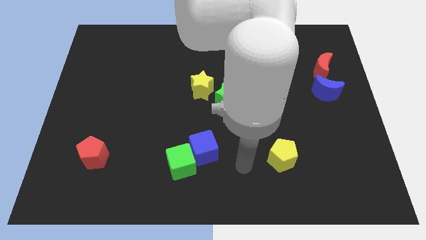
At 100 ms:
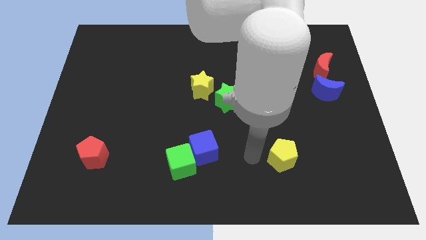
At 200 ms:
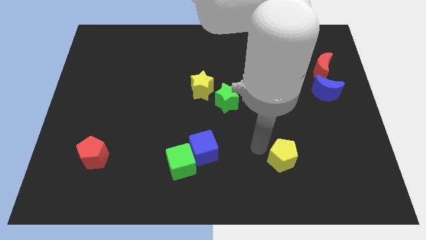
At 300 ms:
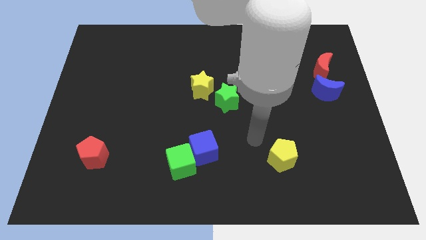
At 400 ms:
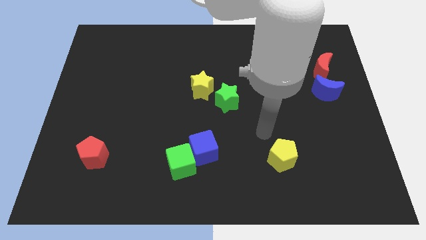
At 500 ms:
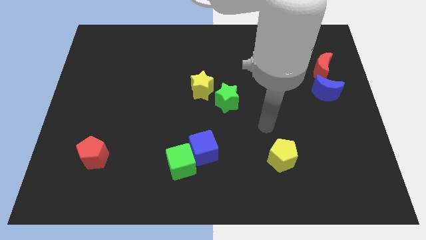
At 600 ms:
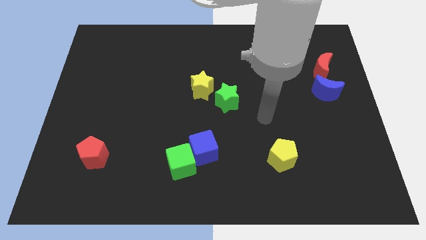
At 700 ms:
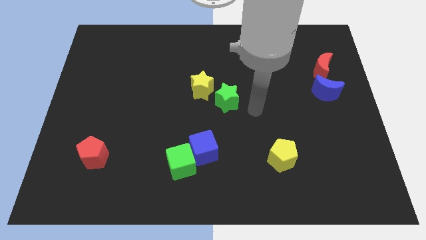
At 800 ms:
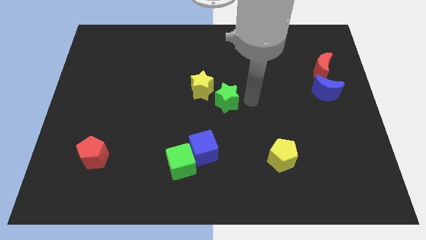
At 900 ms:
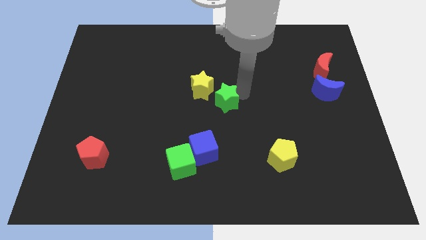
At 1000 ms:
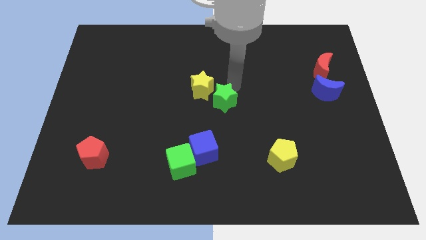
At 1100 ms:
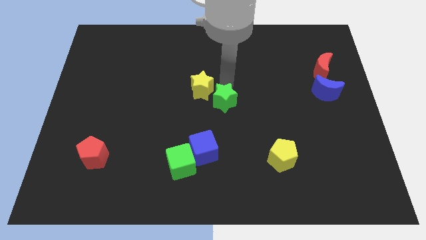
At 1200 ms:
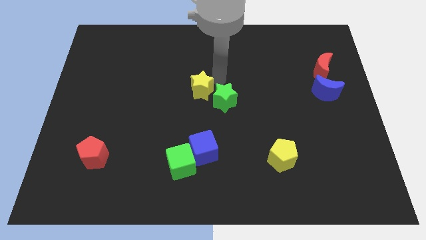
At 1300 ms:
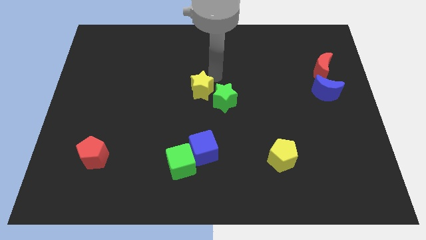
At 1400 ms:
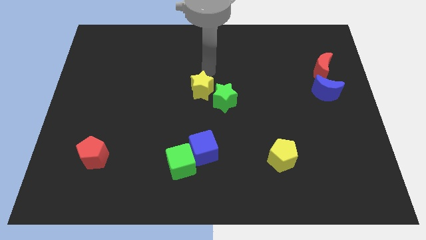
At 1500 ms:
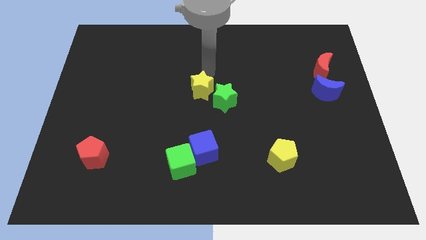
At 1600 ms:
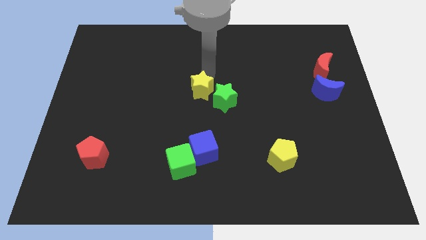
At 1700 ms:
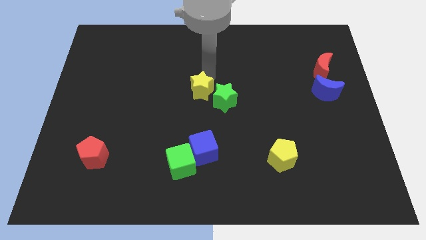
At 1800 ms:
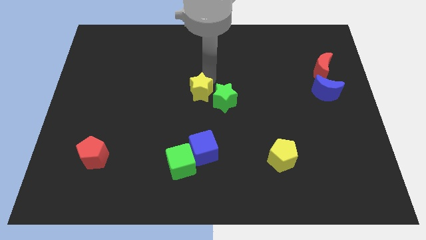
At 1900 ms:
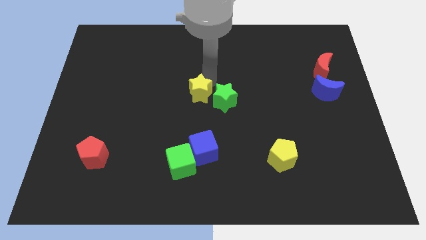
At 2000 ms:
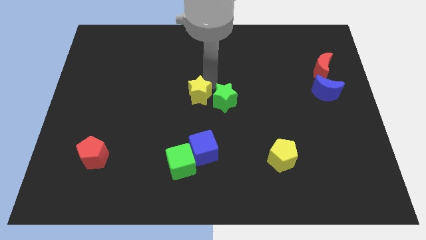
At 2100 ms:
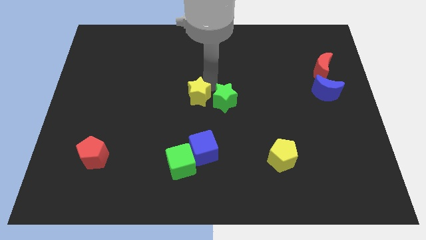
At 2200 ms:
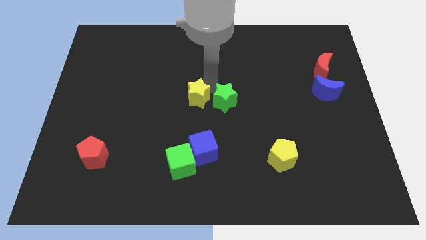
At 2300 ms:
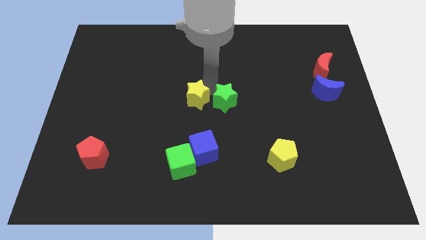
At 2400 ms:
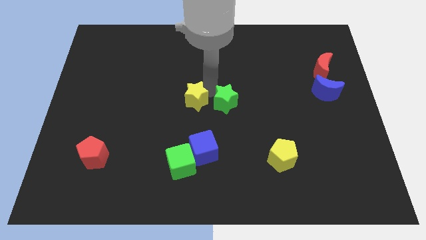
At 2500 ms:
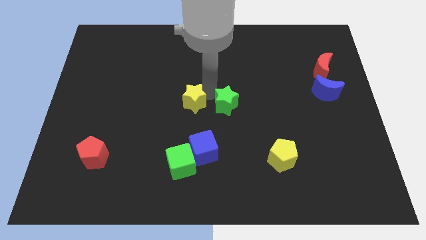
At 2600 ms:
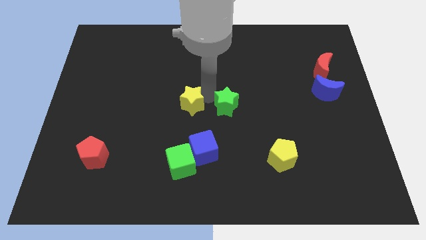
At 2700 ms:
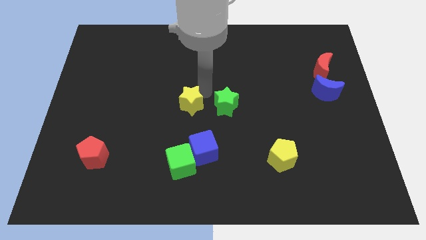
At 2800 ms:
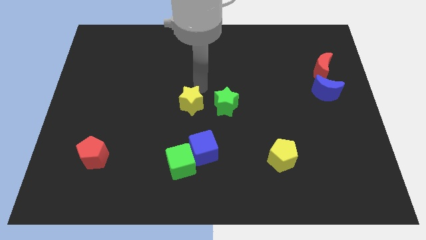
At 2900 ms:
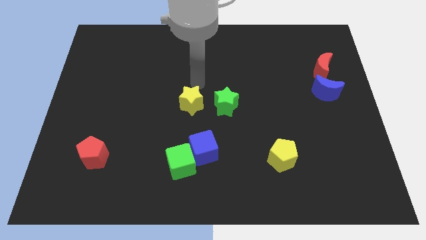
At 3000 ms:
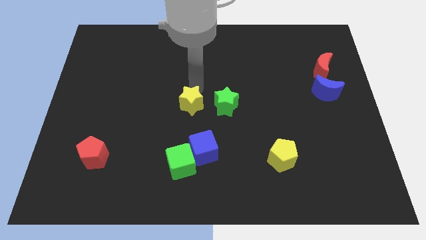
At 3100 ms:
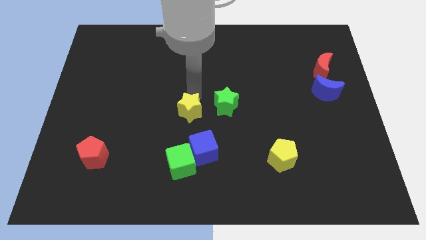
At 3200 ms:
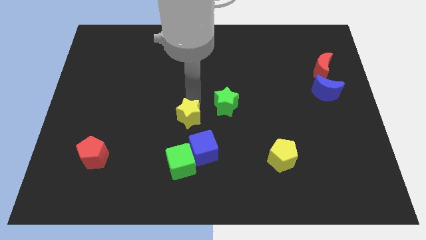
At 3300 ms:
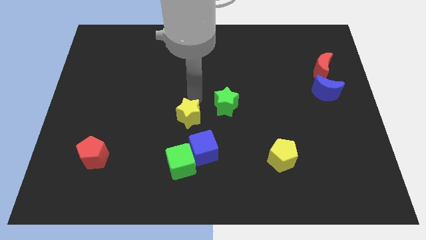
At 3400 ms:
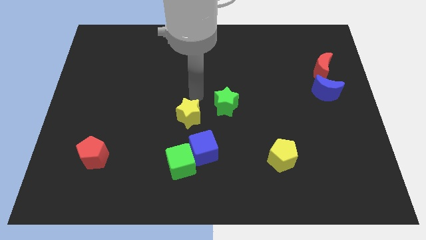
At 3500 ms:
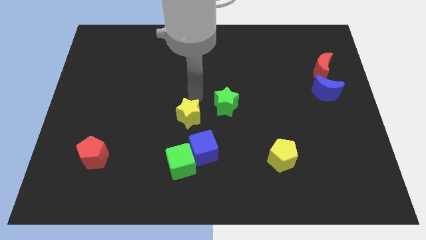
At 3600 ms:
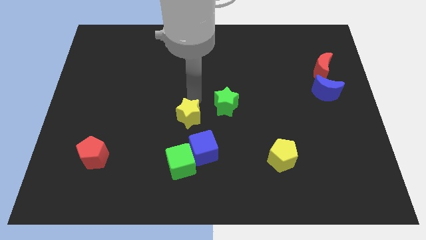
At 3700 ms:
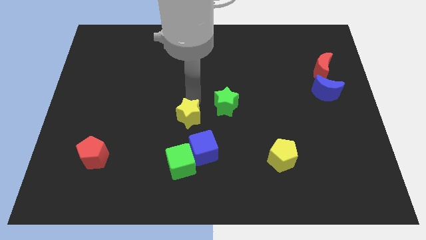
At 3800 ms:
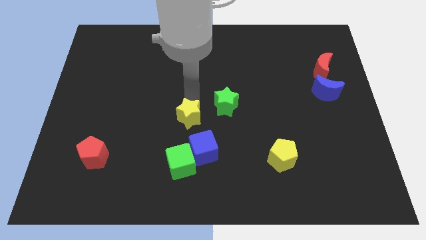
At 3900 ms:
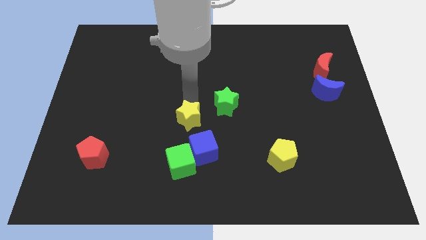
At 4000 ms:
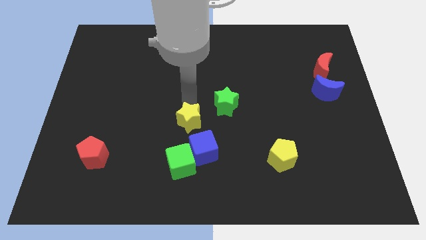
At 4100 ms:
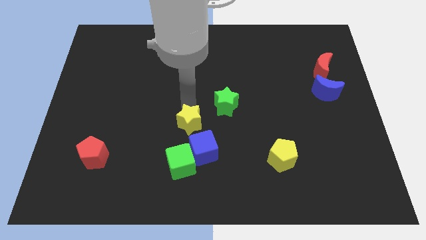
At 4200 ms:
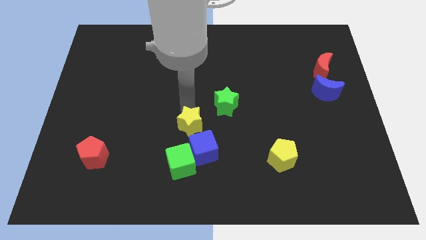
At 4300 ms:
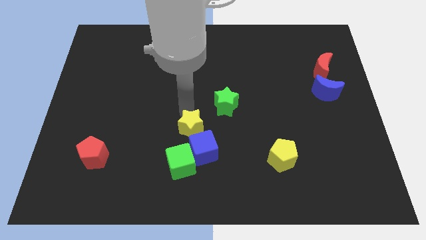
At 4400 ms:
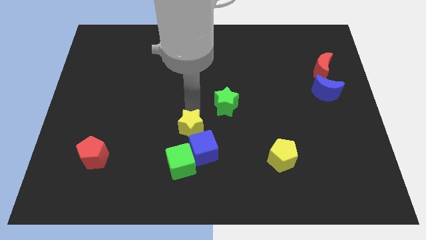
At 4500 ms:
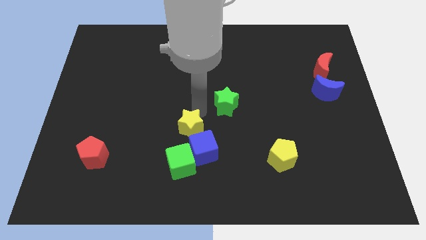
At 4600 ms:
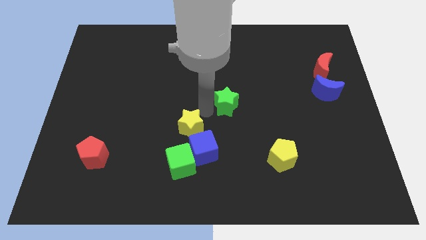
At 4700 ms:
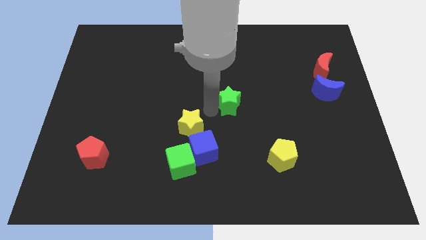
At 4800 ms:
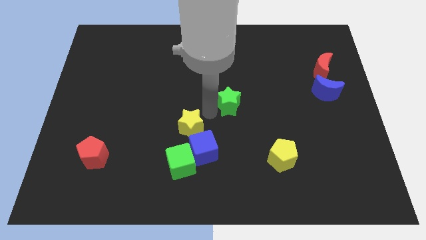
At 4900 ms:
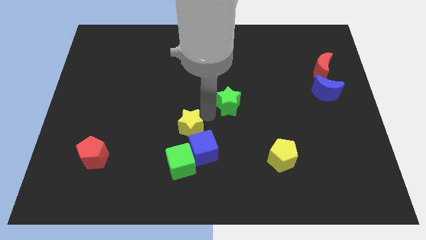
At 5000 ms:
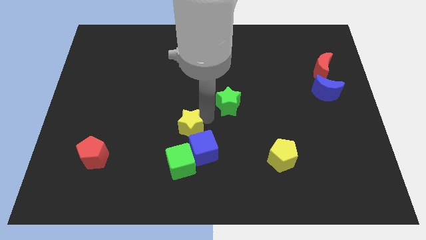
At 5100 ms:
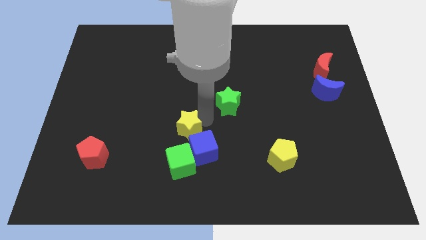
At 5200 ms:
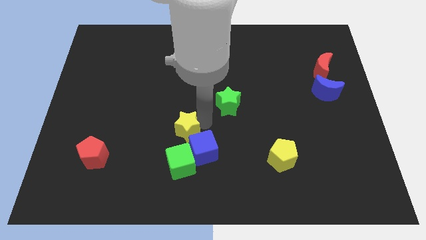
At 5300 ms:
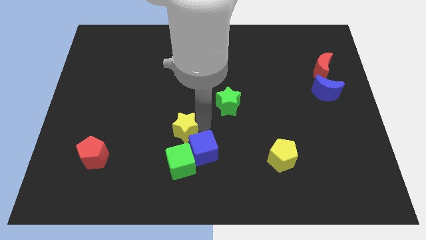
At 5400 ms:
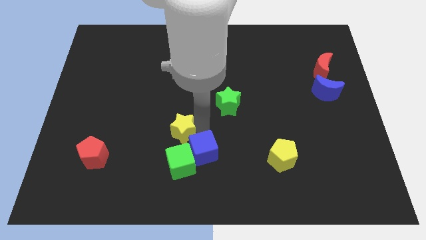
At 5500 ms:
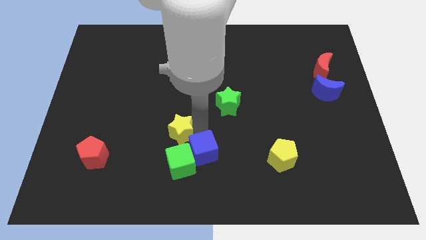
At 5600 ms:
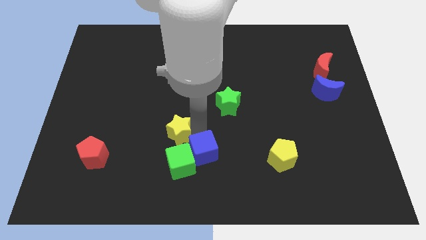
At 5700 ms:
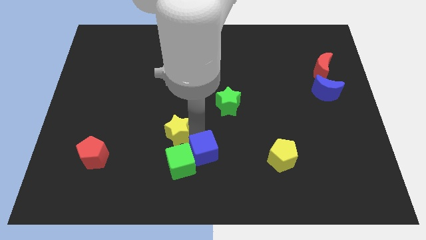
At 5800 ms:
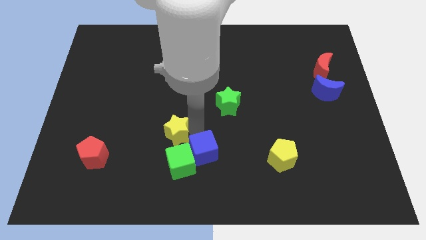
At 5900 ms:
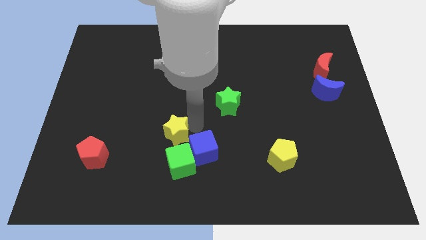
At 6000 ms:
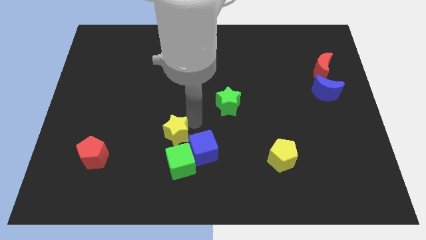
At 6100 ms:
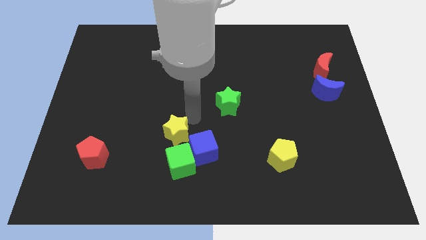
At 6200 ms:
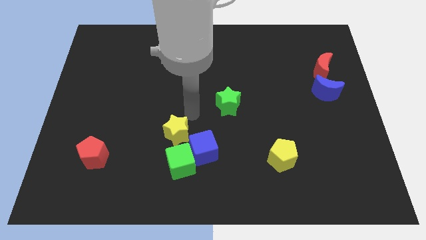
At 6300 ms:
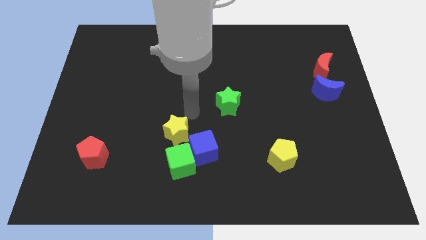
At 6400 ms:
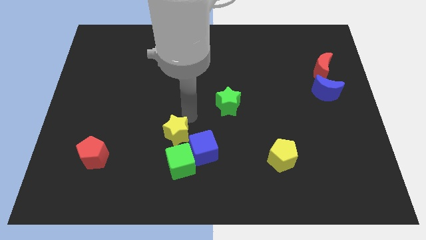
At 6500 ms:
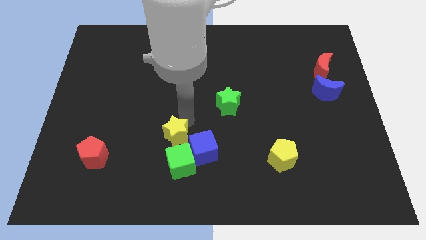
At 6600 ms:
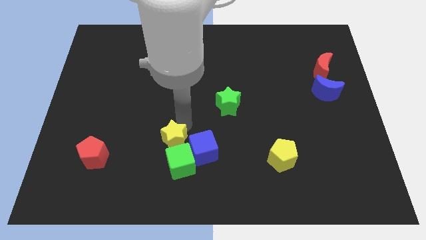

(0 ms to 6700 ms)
put the yellow star to the green cube
